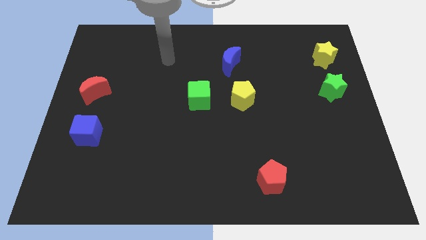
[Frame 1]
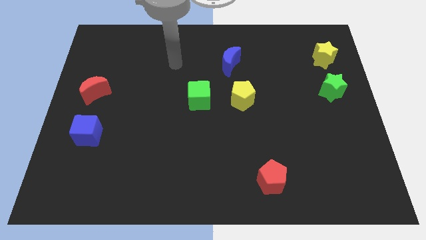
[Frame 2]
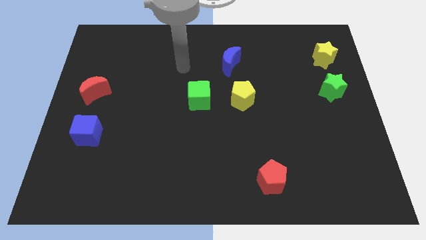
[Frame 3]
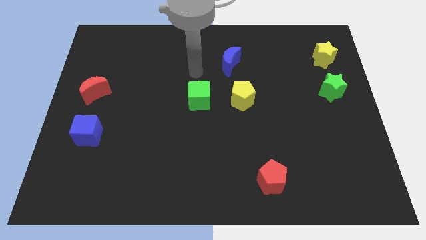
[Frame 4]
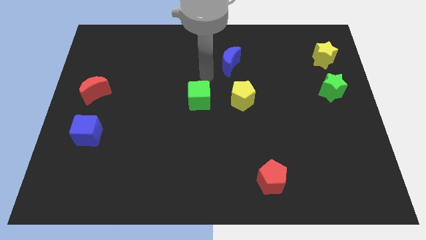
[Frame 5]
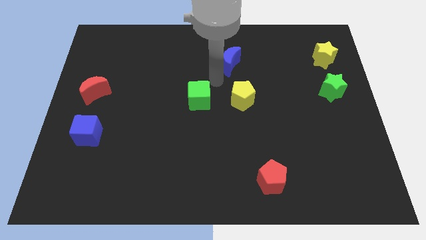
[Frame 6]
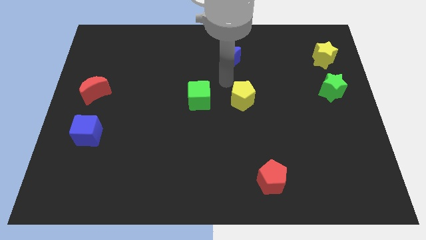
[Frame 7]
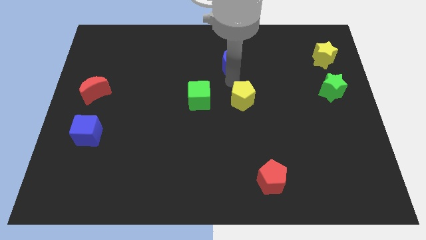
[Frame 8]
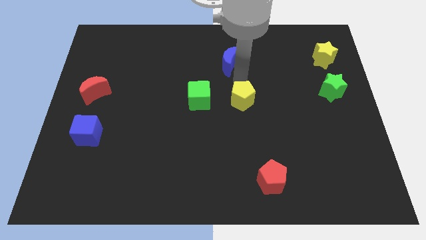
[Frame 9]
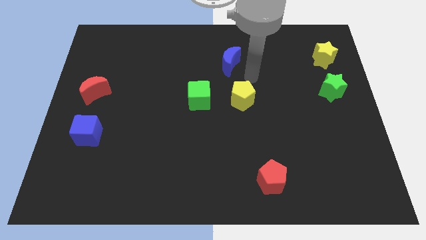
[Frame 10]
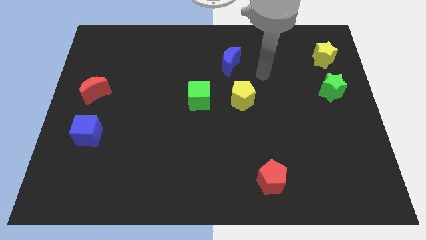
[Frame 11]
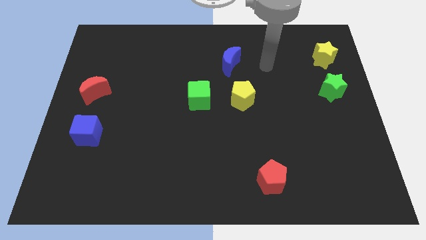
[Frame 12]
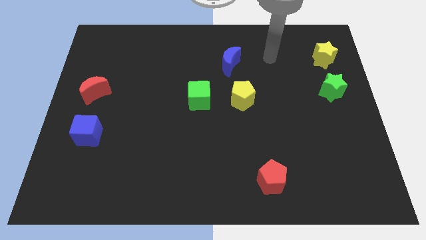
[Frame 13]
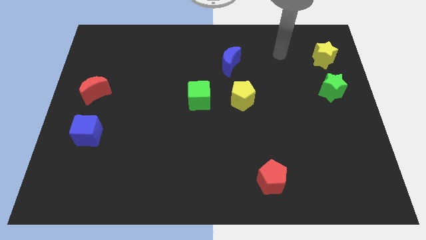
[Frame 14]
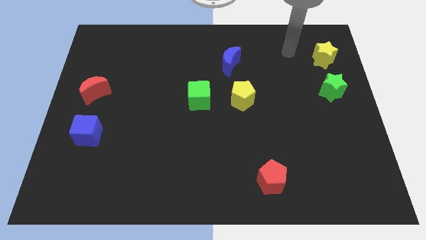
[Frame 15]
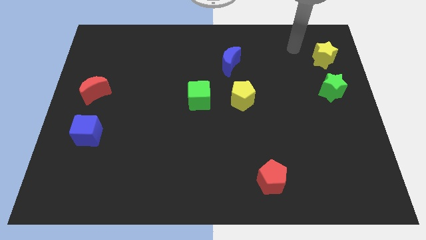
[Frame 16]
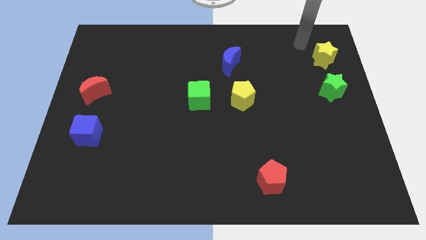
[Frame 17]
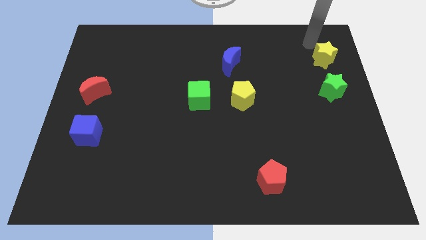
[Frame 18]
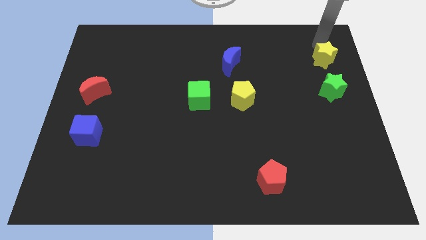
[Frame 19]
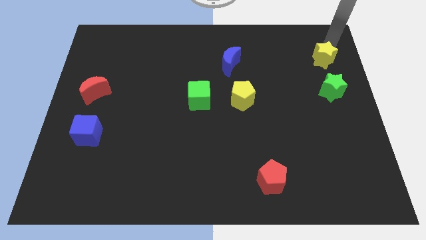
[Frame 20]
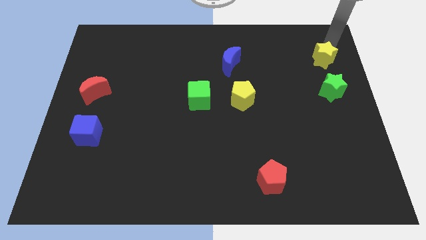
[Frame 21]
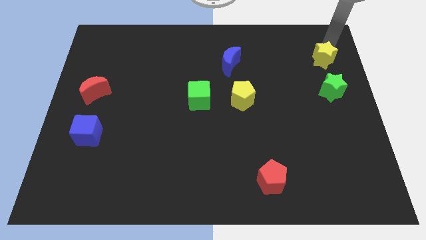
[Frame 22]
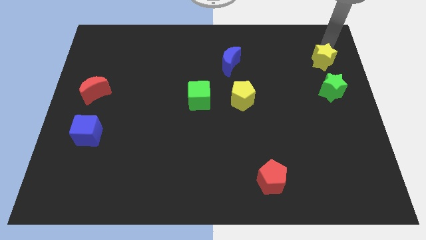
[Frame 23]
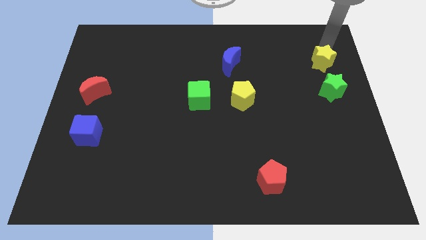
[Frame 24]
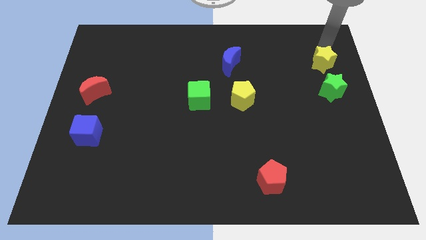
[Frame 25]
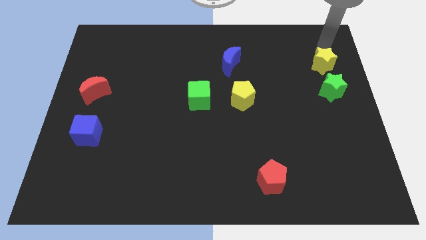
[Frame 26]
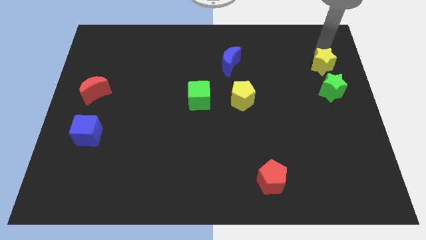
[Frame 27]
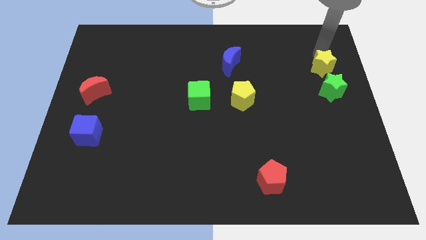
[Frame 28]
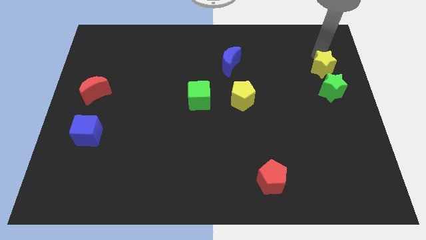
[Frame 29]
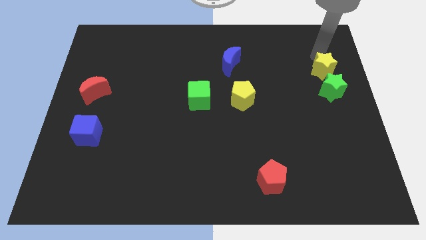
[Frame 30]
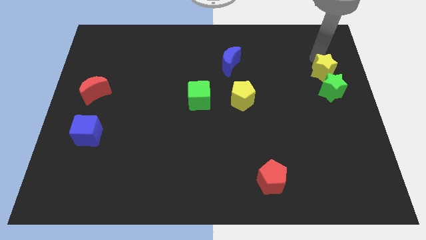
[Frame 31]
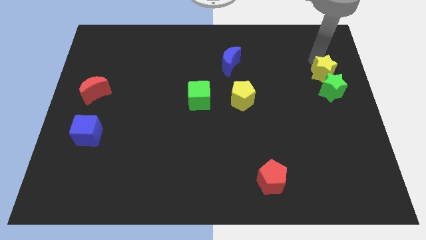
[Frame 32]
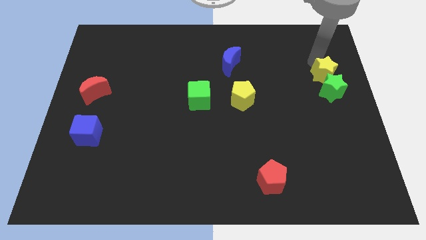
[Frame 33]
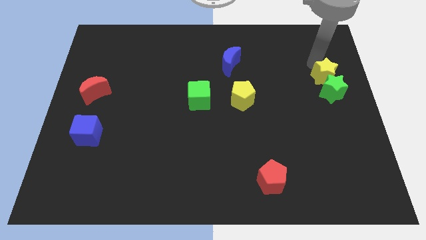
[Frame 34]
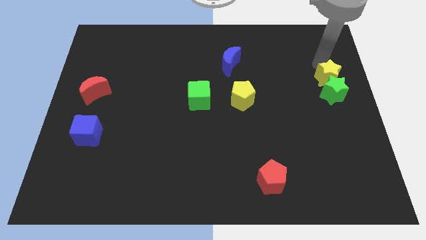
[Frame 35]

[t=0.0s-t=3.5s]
slide the yellow star a little bit downwards

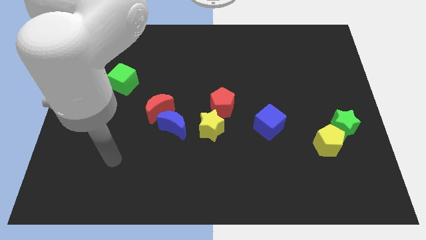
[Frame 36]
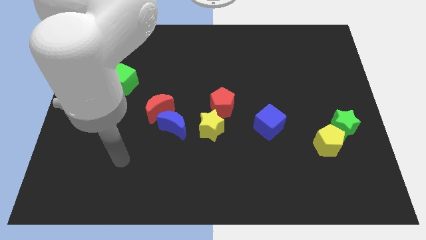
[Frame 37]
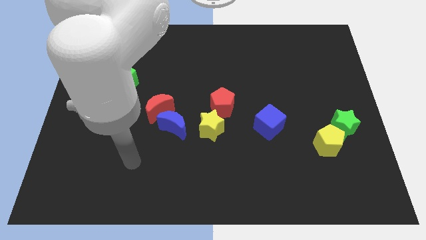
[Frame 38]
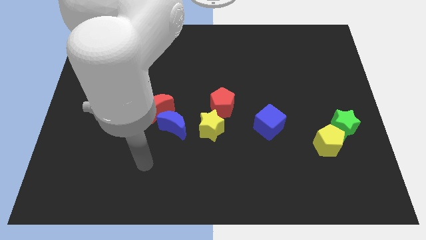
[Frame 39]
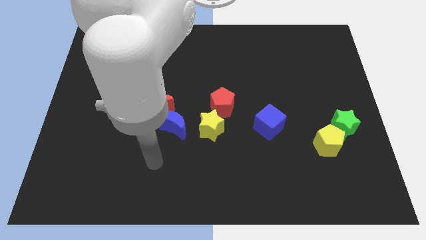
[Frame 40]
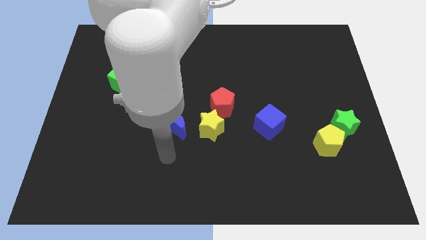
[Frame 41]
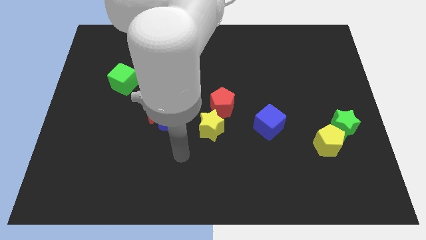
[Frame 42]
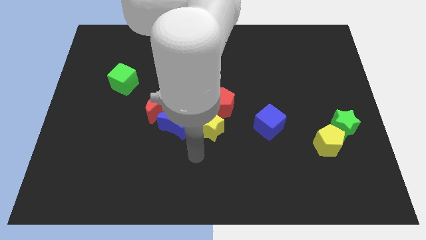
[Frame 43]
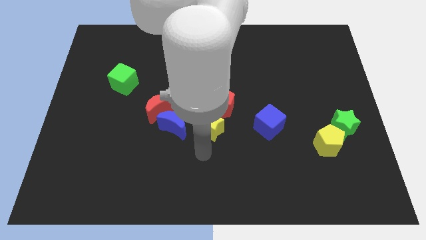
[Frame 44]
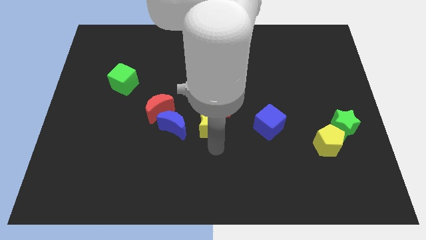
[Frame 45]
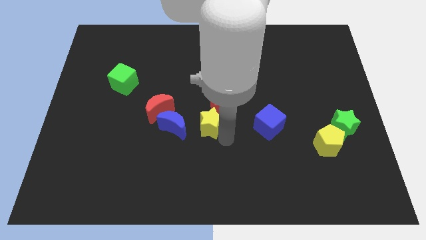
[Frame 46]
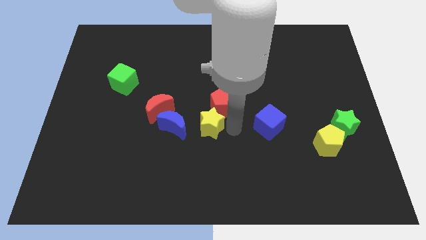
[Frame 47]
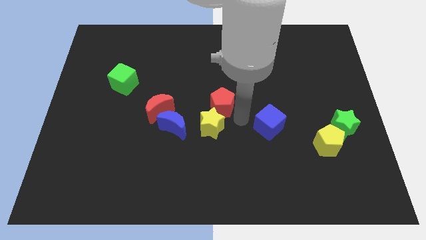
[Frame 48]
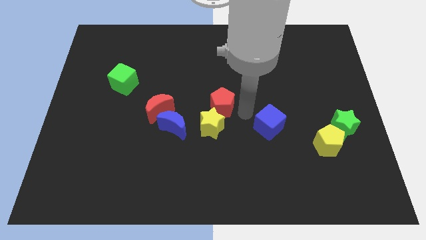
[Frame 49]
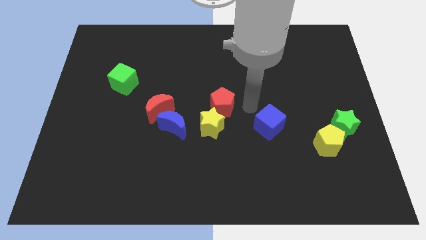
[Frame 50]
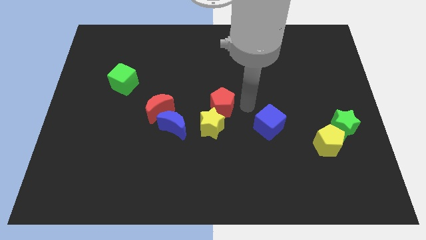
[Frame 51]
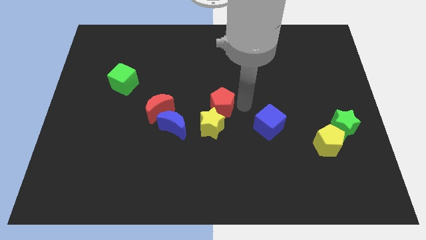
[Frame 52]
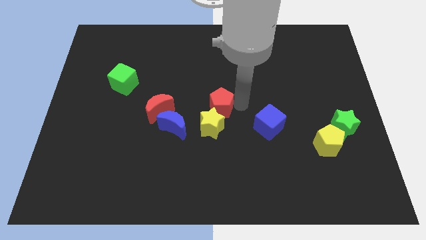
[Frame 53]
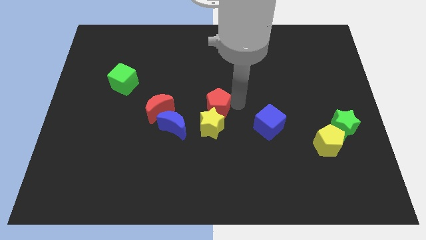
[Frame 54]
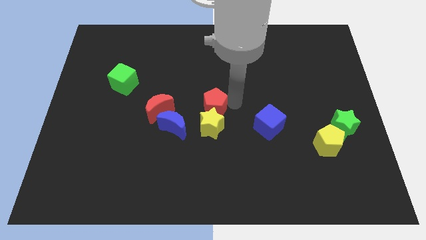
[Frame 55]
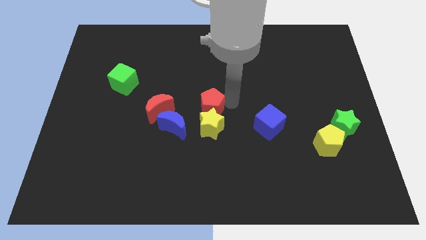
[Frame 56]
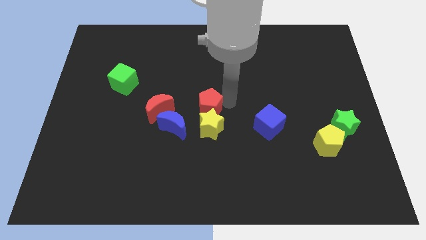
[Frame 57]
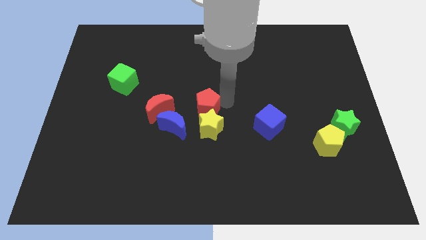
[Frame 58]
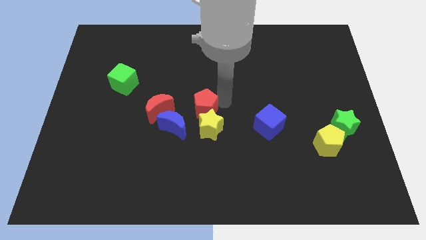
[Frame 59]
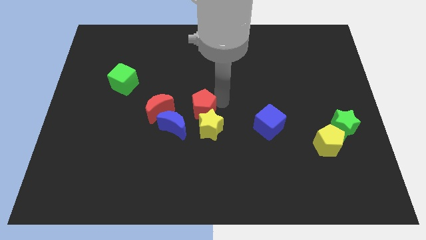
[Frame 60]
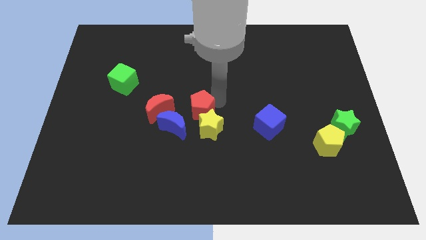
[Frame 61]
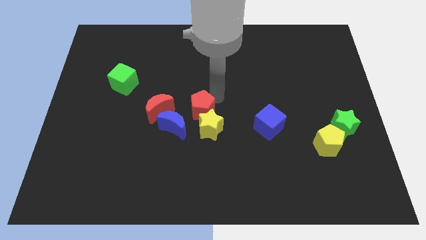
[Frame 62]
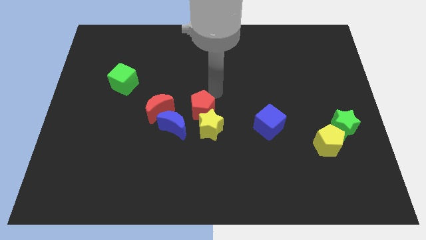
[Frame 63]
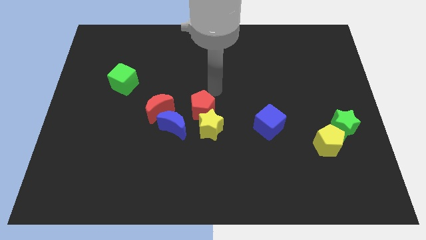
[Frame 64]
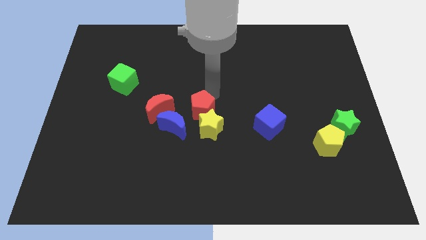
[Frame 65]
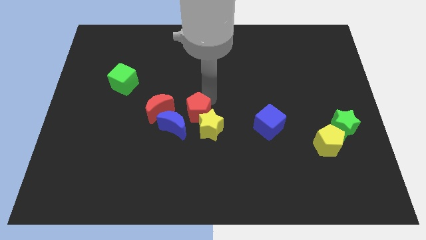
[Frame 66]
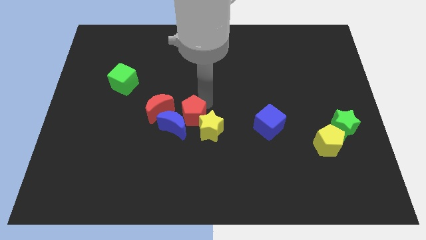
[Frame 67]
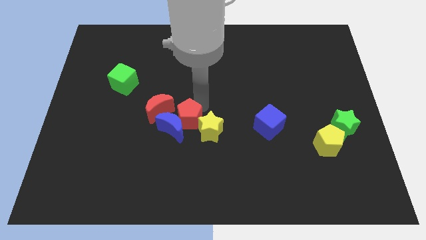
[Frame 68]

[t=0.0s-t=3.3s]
slightly push the red pentagon downwards and then to the left

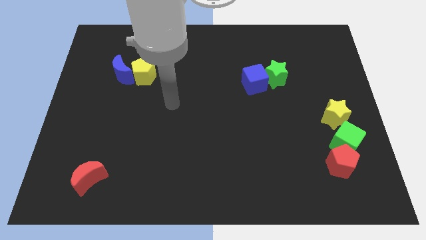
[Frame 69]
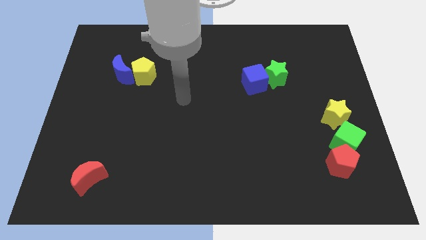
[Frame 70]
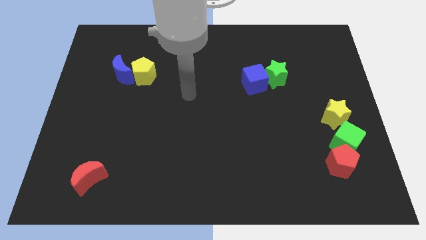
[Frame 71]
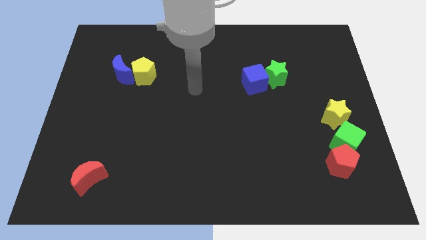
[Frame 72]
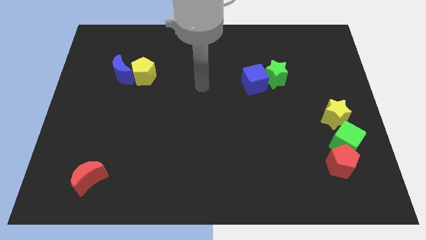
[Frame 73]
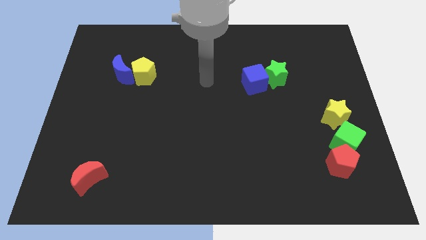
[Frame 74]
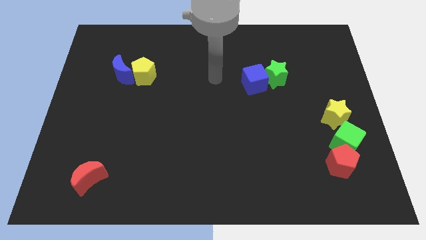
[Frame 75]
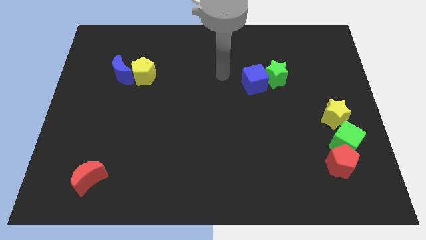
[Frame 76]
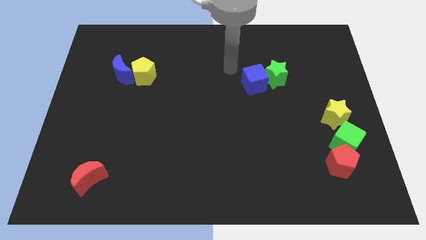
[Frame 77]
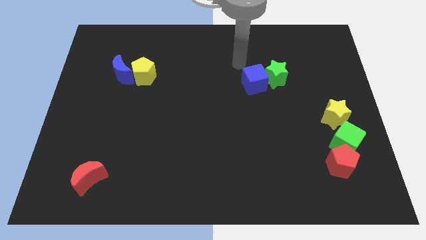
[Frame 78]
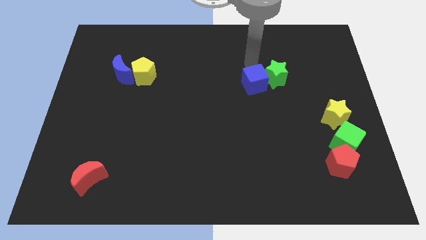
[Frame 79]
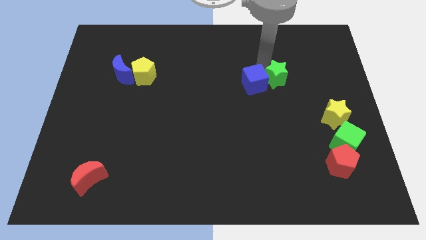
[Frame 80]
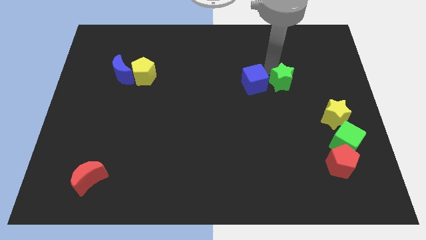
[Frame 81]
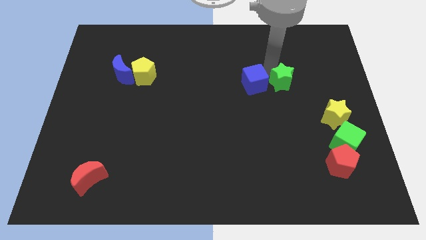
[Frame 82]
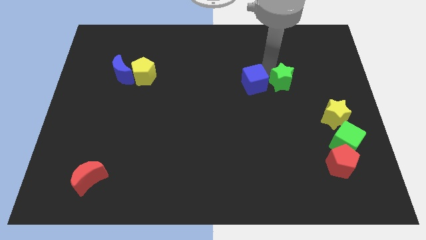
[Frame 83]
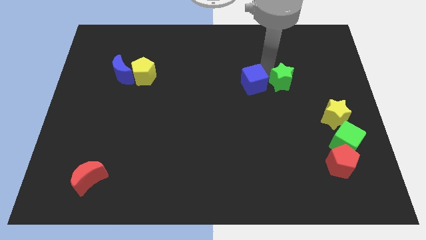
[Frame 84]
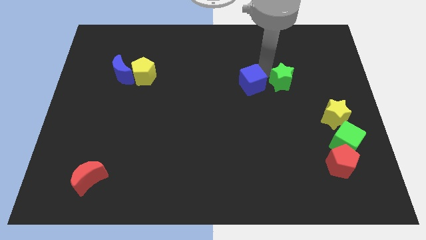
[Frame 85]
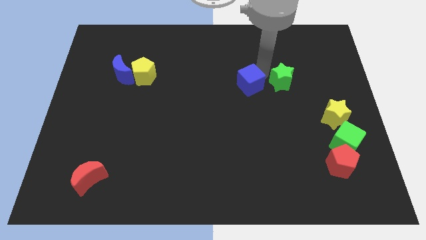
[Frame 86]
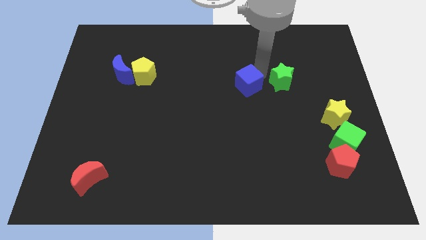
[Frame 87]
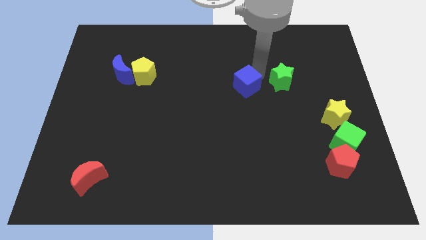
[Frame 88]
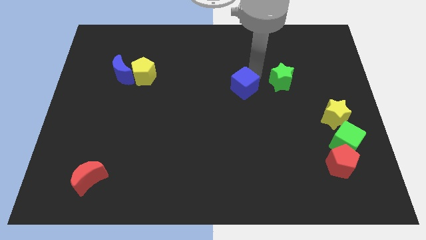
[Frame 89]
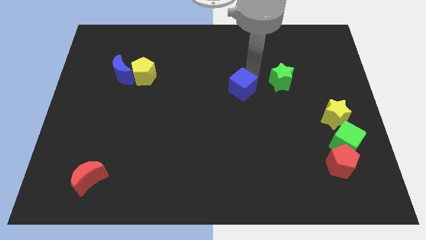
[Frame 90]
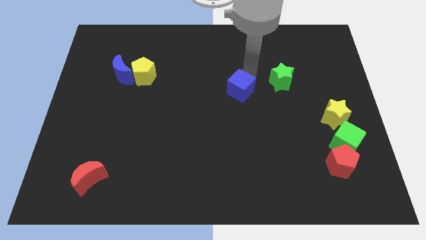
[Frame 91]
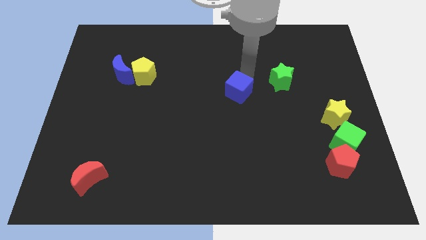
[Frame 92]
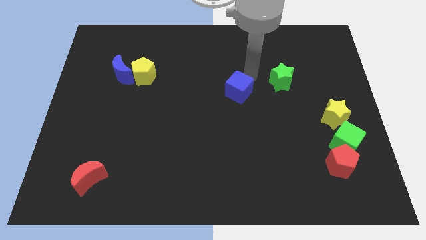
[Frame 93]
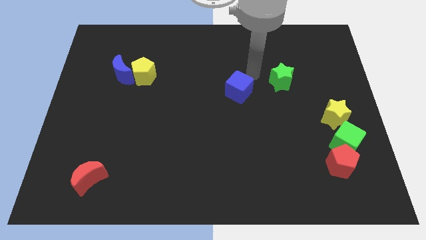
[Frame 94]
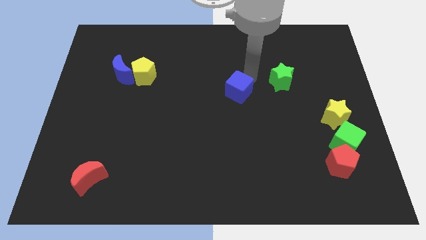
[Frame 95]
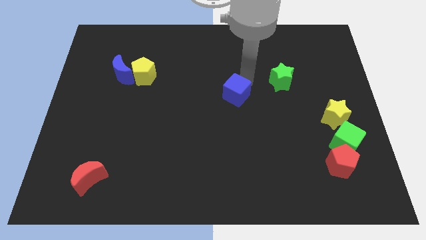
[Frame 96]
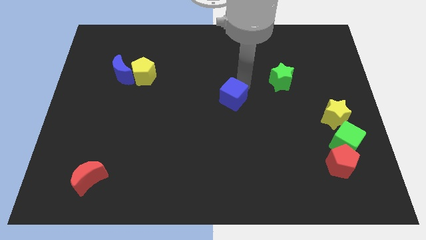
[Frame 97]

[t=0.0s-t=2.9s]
slide the blue cube downwards and then left somewhat
